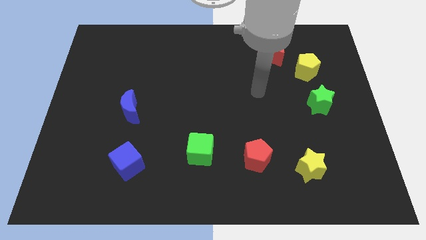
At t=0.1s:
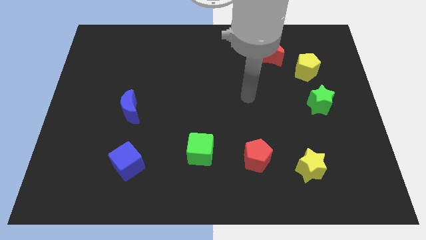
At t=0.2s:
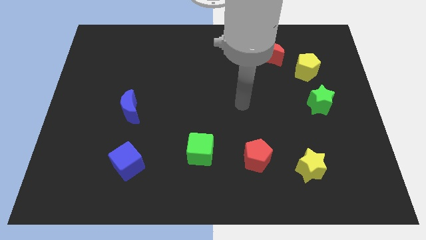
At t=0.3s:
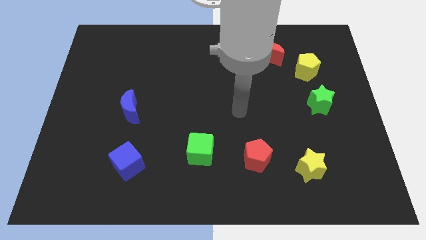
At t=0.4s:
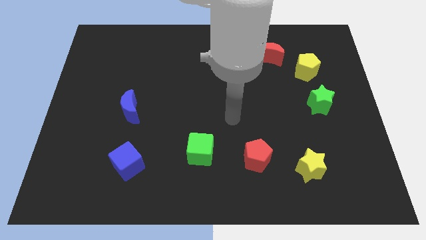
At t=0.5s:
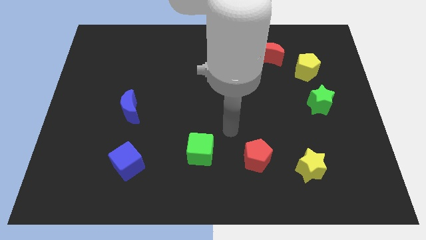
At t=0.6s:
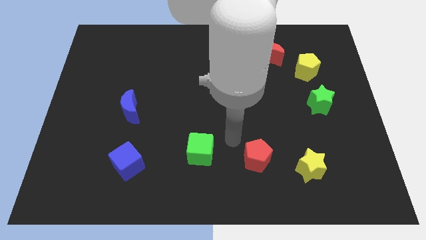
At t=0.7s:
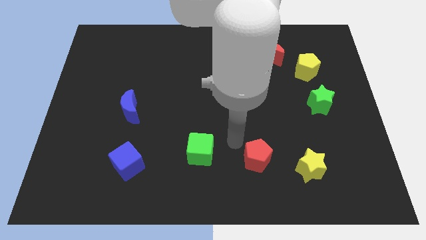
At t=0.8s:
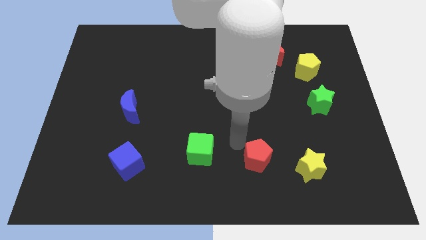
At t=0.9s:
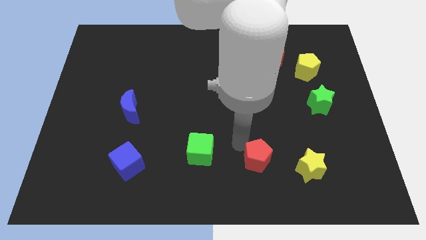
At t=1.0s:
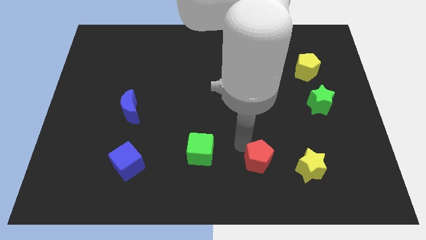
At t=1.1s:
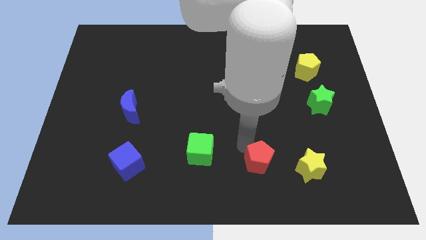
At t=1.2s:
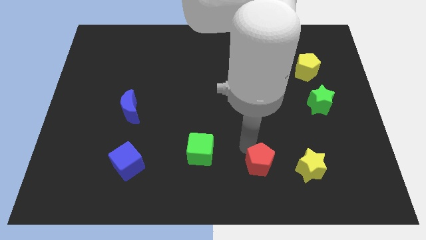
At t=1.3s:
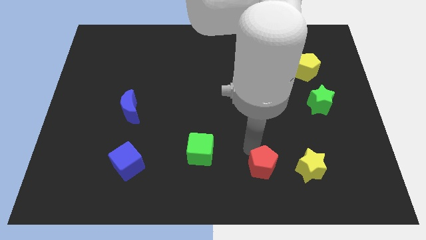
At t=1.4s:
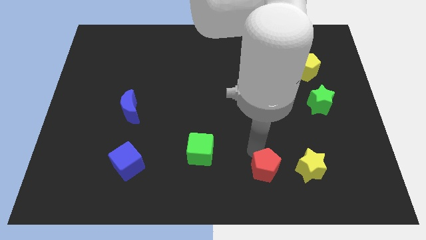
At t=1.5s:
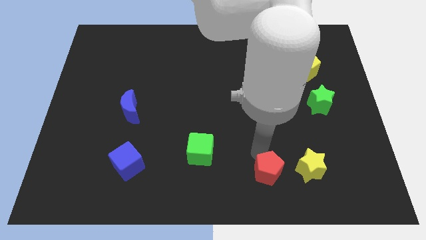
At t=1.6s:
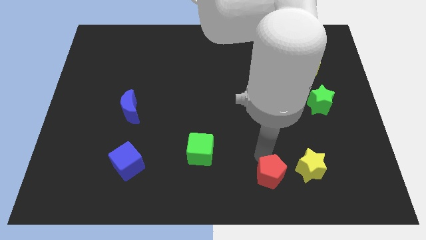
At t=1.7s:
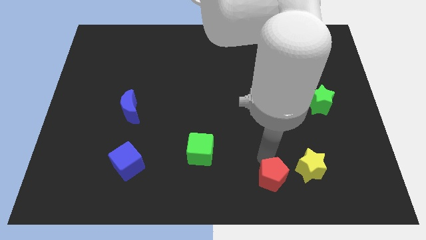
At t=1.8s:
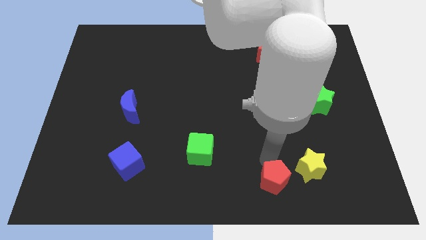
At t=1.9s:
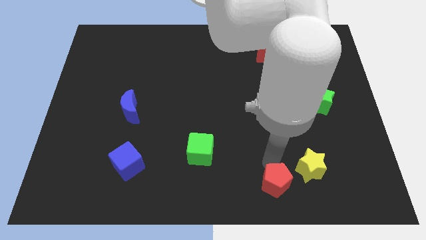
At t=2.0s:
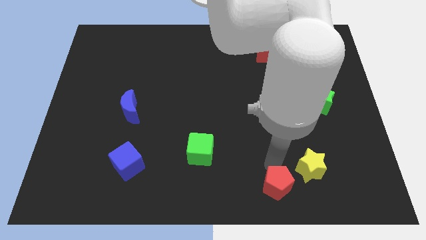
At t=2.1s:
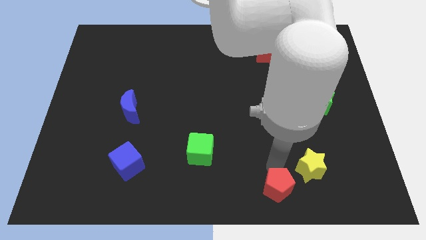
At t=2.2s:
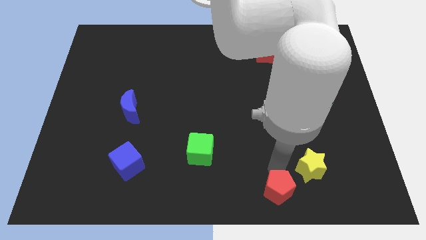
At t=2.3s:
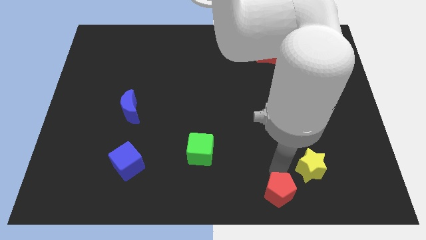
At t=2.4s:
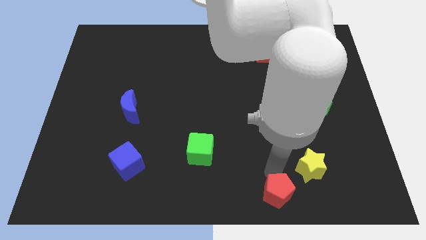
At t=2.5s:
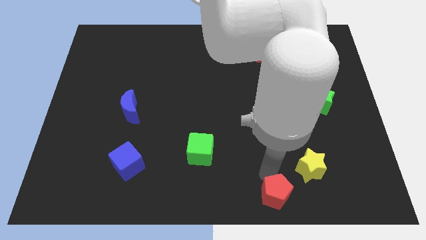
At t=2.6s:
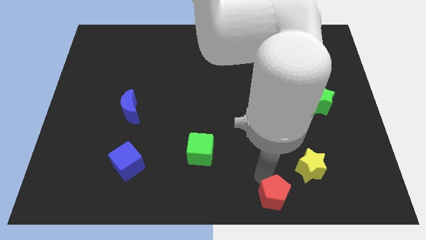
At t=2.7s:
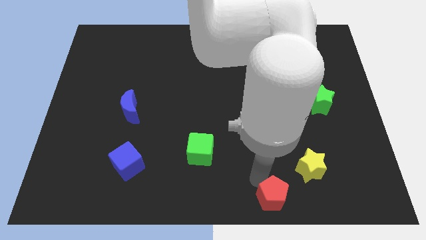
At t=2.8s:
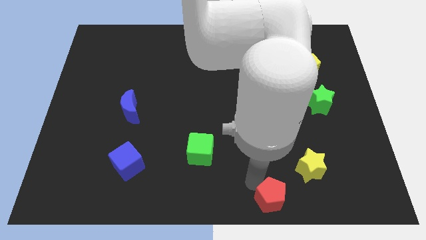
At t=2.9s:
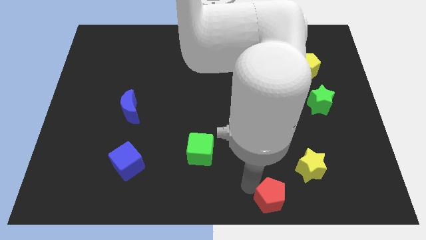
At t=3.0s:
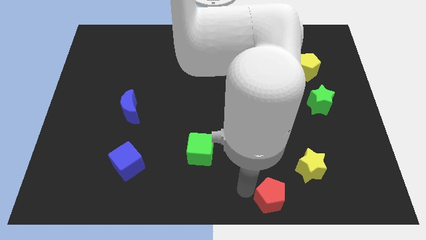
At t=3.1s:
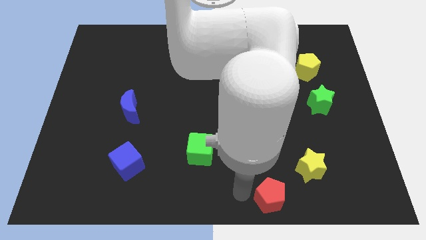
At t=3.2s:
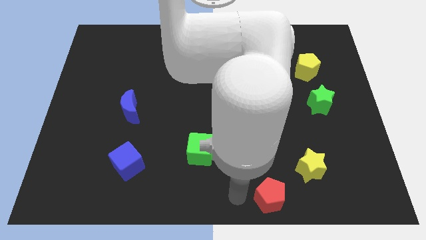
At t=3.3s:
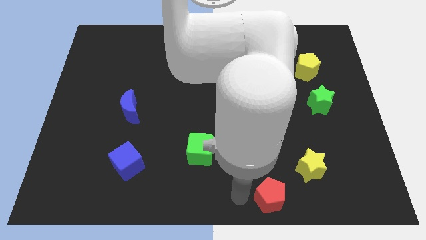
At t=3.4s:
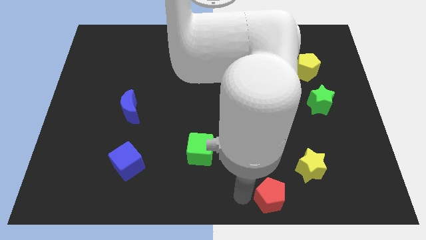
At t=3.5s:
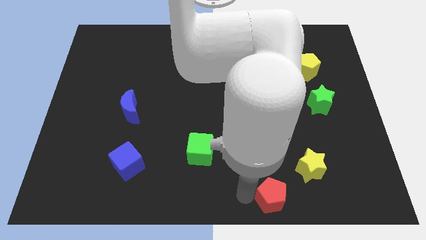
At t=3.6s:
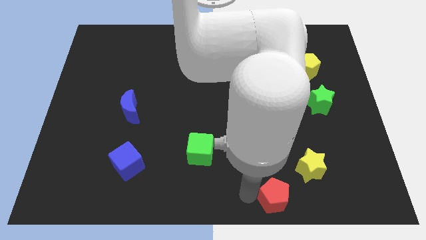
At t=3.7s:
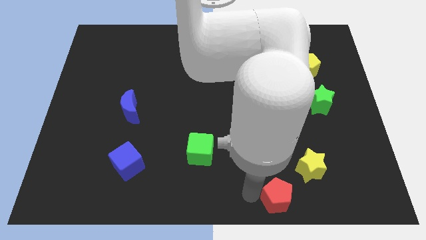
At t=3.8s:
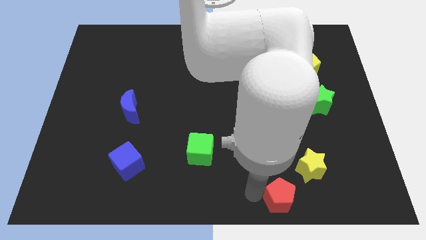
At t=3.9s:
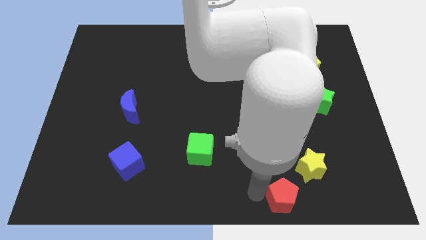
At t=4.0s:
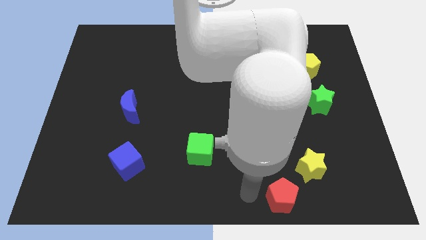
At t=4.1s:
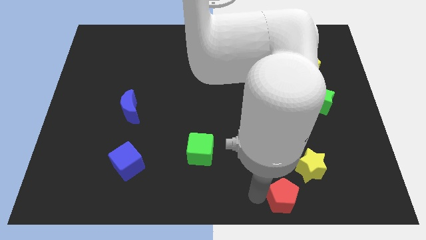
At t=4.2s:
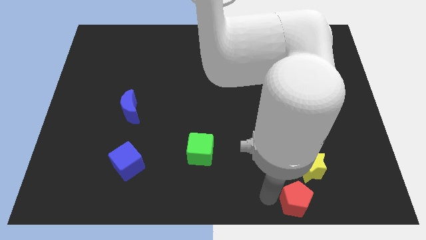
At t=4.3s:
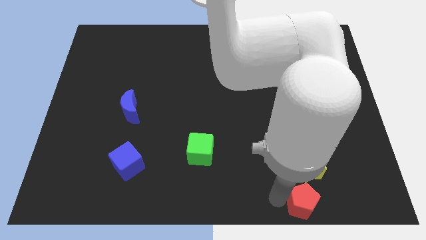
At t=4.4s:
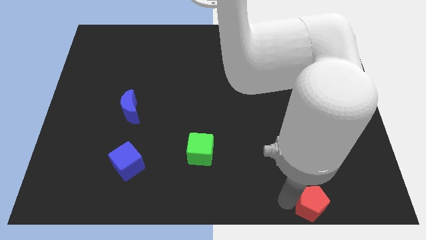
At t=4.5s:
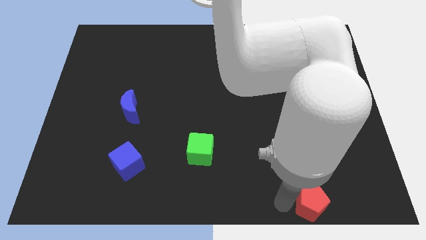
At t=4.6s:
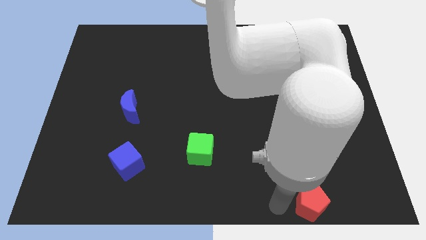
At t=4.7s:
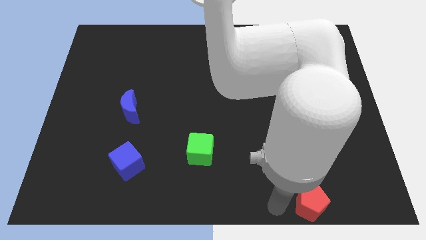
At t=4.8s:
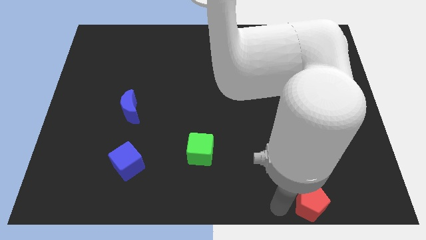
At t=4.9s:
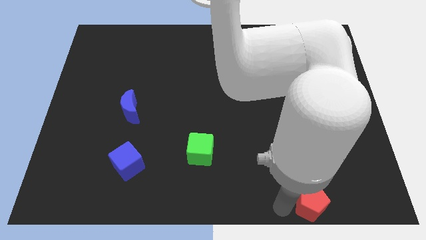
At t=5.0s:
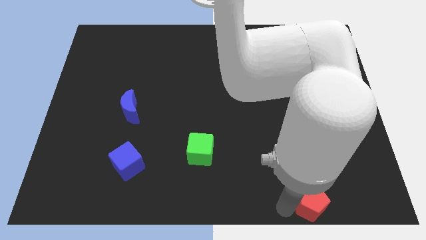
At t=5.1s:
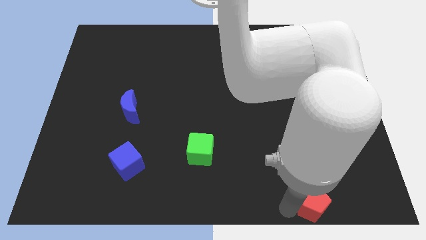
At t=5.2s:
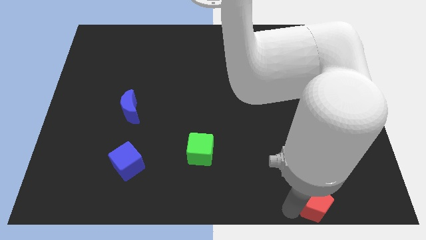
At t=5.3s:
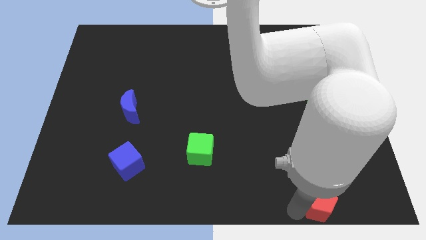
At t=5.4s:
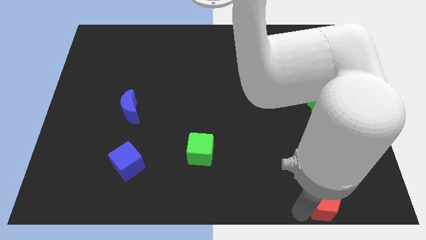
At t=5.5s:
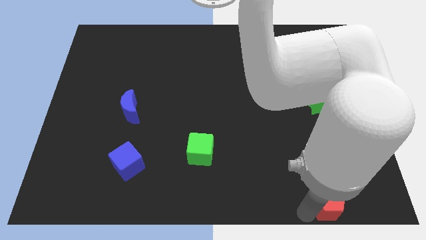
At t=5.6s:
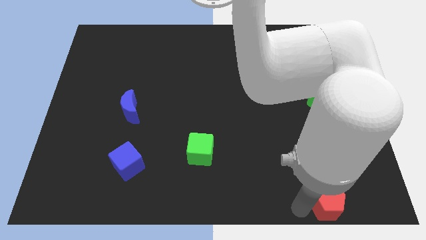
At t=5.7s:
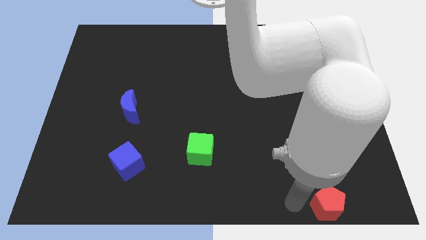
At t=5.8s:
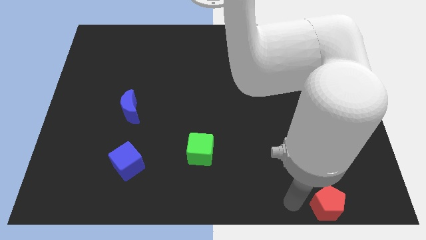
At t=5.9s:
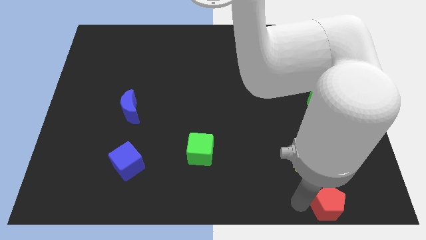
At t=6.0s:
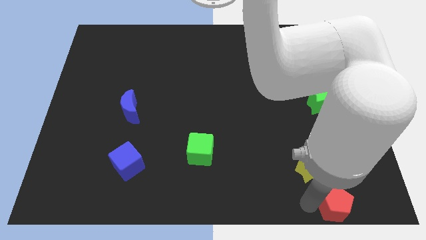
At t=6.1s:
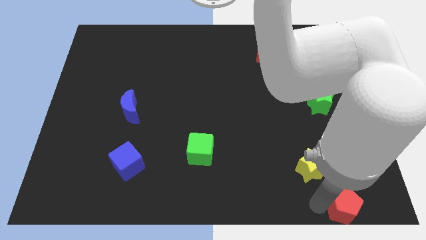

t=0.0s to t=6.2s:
put the red pentagon to the bottom right corner

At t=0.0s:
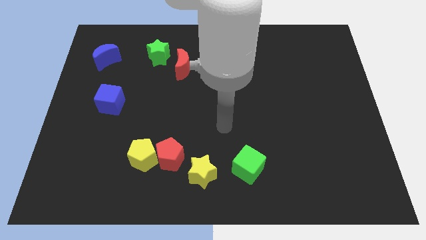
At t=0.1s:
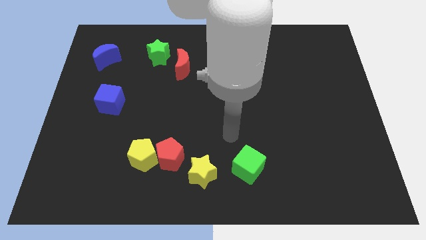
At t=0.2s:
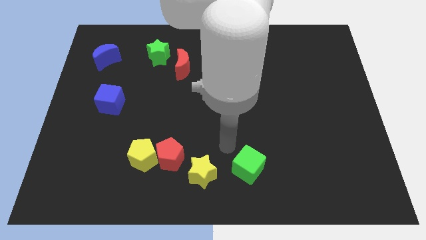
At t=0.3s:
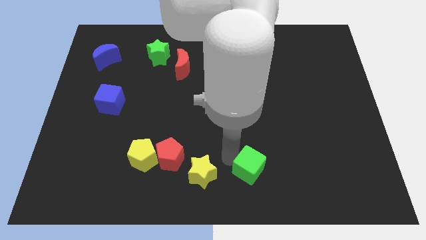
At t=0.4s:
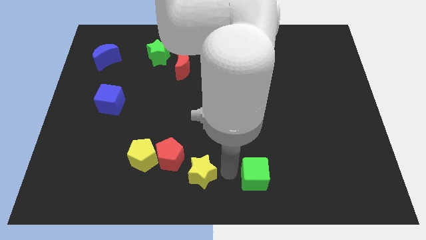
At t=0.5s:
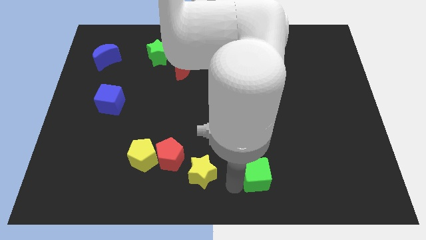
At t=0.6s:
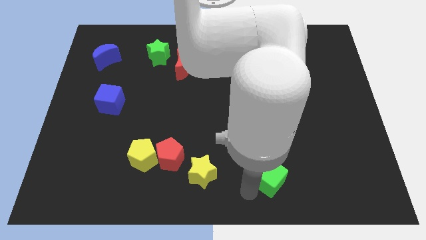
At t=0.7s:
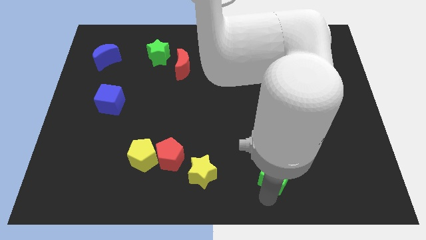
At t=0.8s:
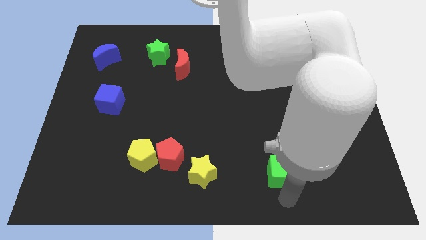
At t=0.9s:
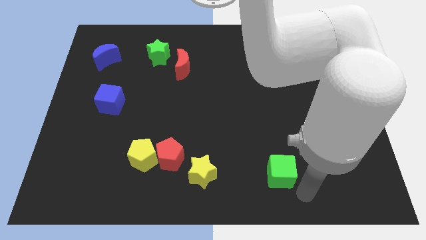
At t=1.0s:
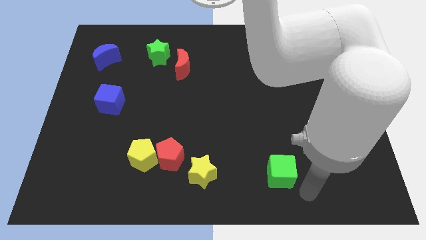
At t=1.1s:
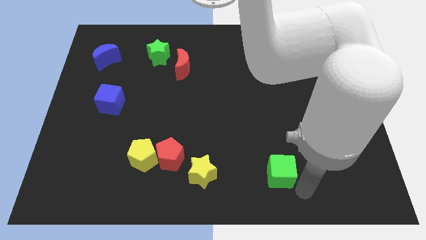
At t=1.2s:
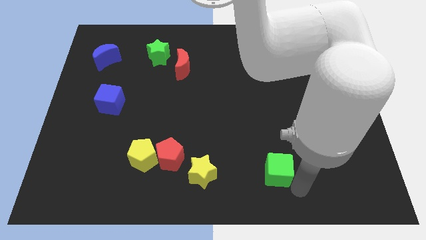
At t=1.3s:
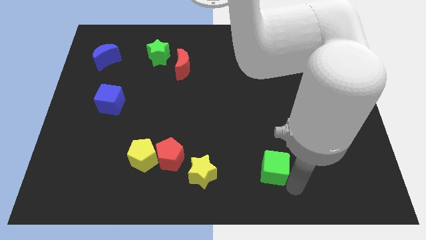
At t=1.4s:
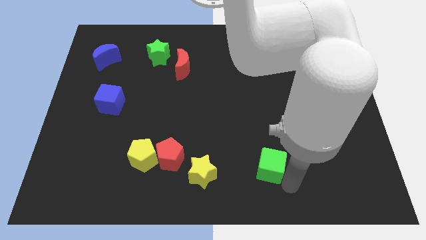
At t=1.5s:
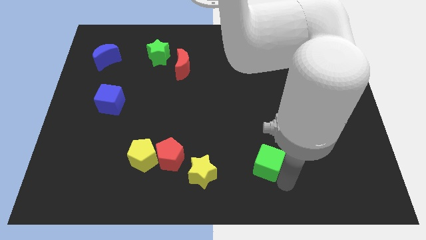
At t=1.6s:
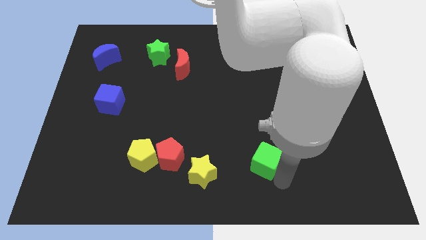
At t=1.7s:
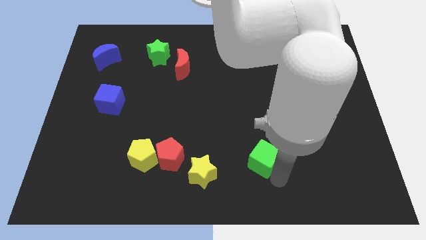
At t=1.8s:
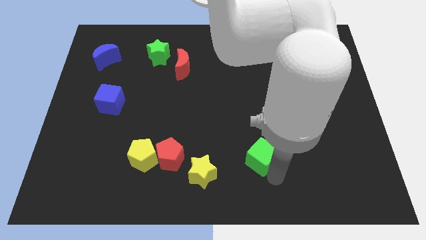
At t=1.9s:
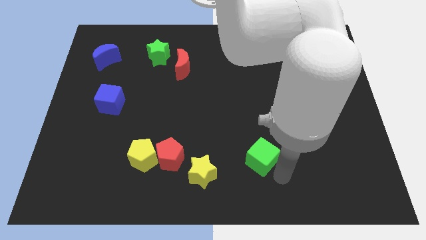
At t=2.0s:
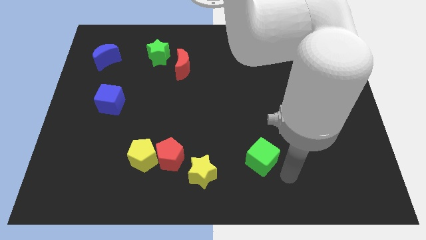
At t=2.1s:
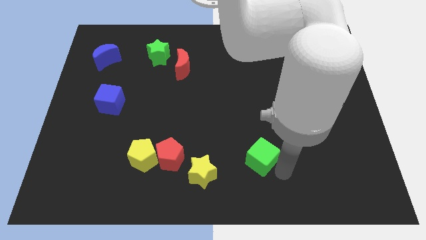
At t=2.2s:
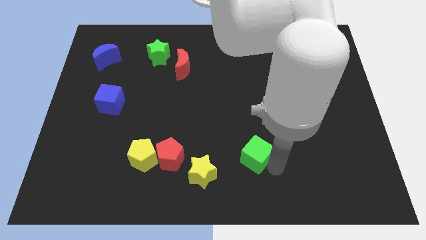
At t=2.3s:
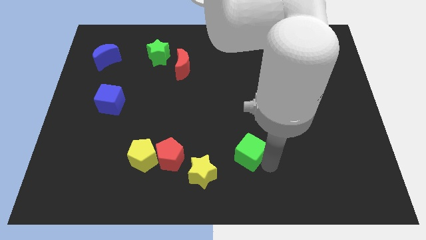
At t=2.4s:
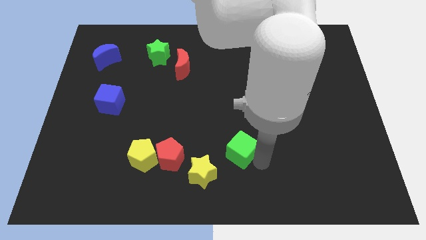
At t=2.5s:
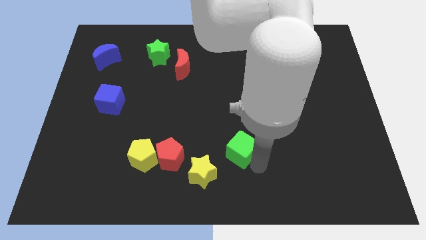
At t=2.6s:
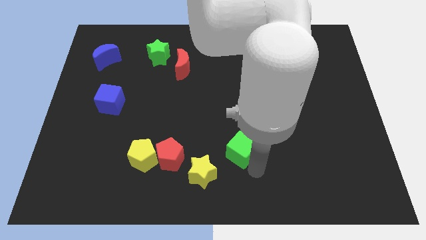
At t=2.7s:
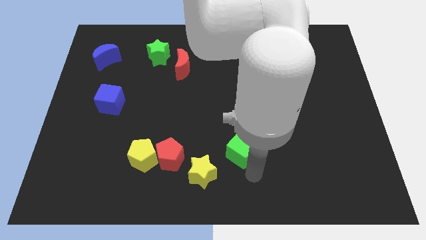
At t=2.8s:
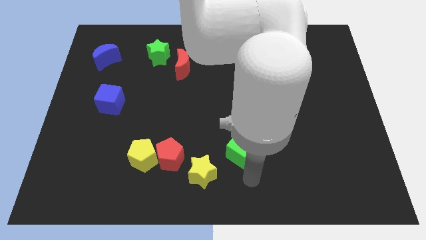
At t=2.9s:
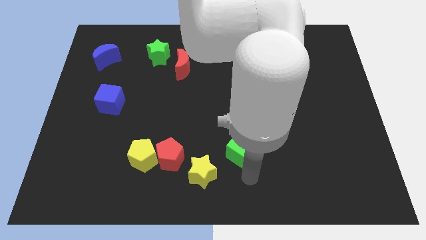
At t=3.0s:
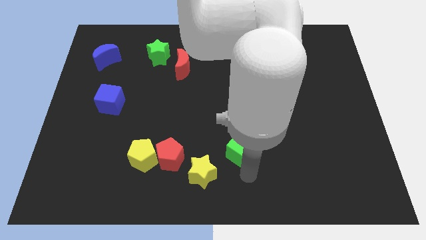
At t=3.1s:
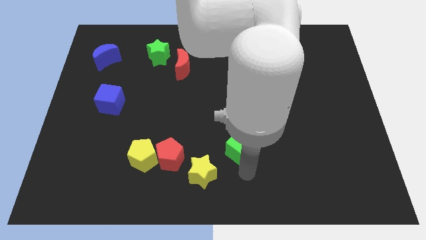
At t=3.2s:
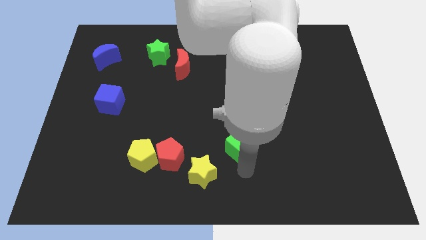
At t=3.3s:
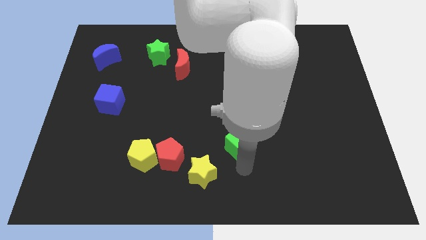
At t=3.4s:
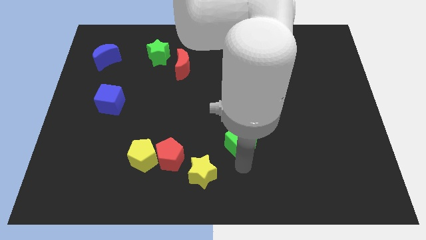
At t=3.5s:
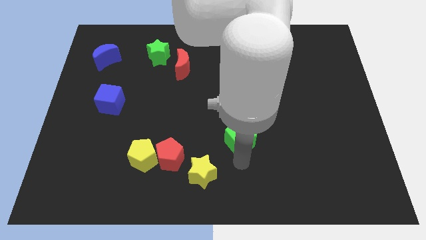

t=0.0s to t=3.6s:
move the green cube to the center of the board
